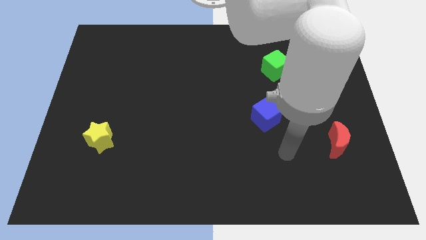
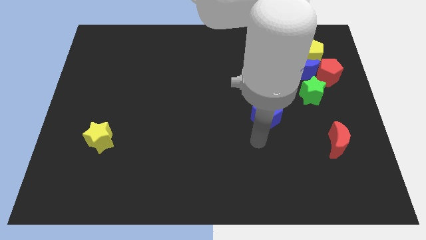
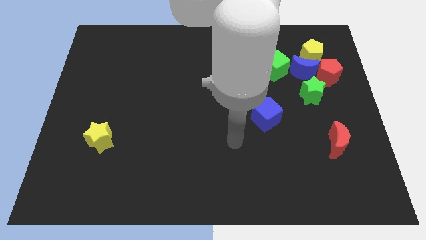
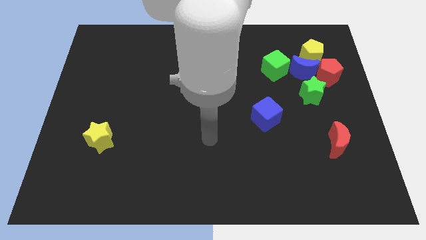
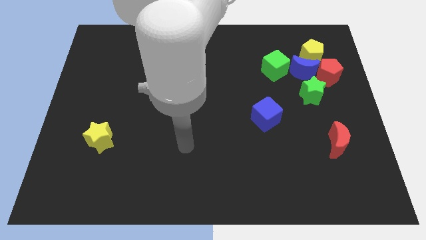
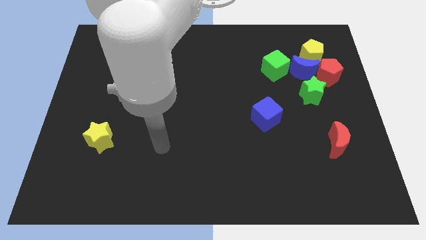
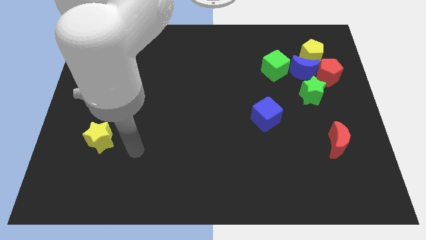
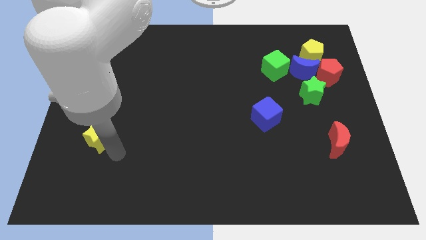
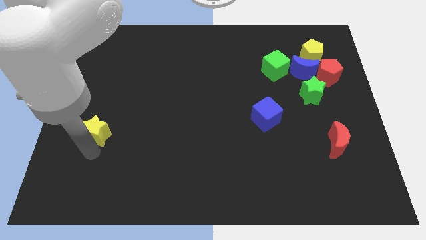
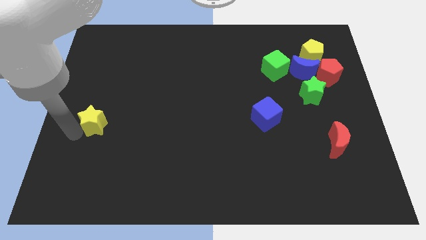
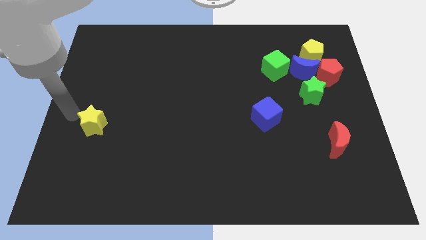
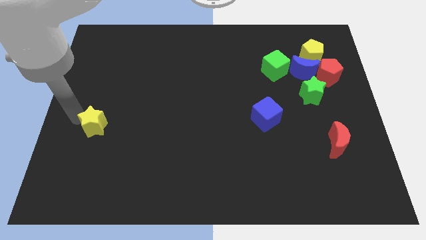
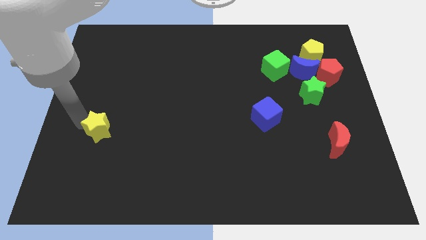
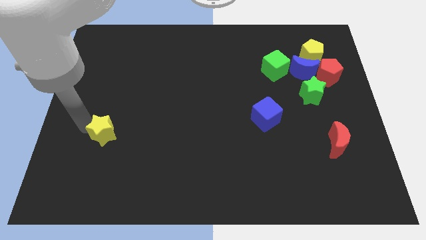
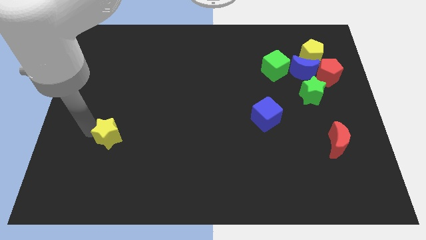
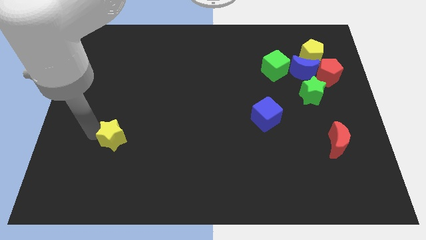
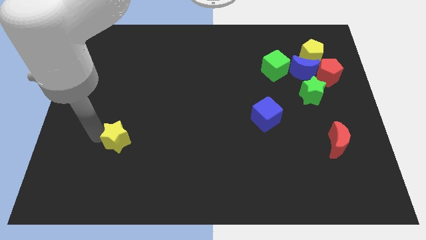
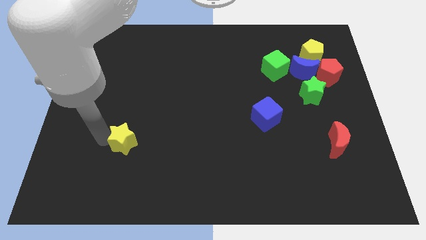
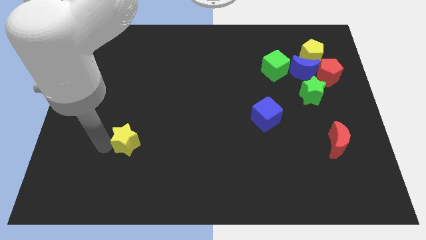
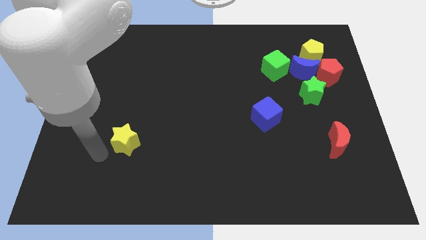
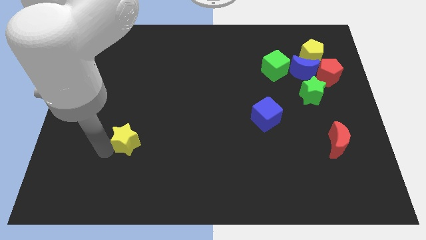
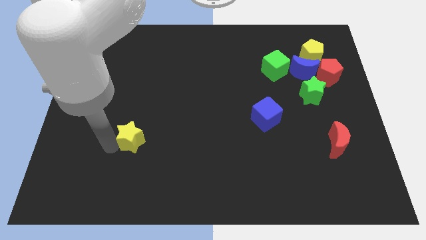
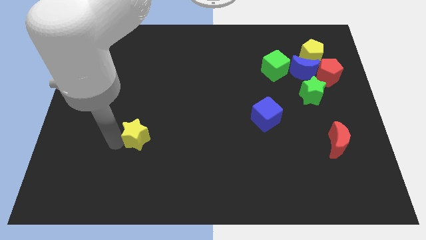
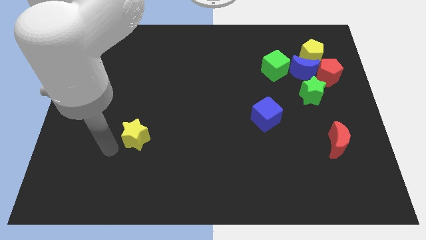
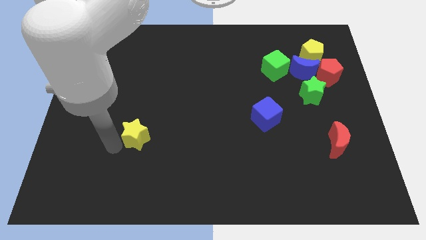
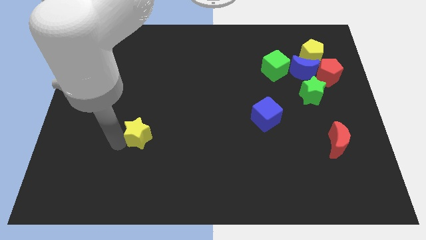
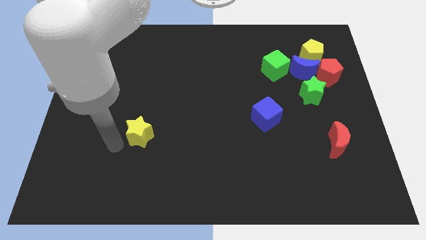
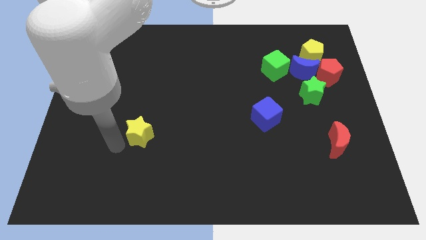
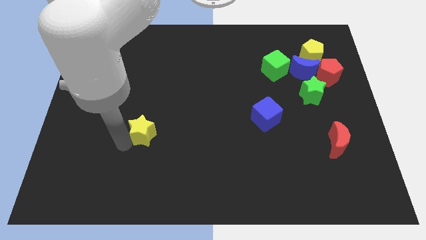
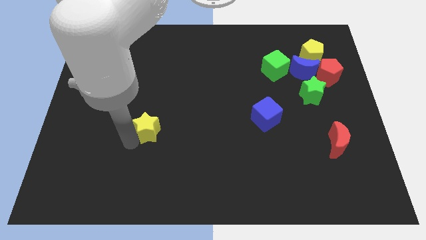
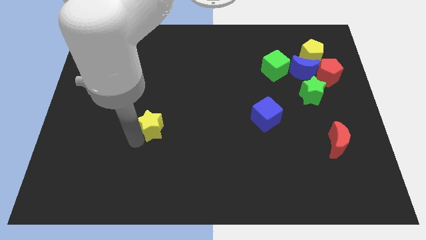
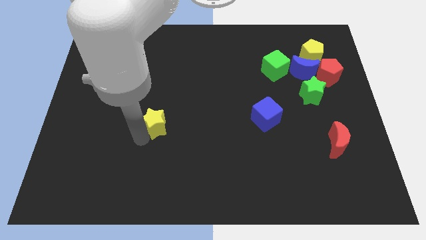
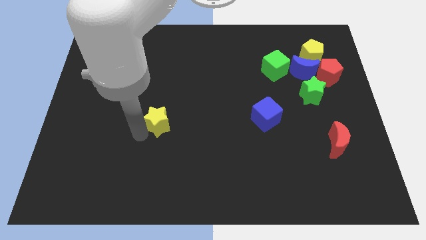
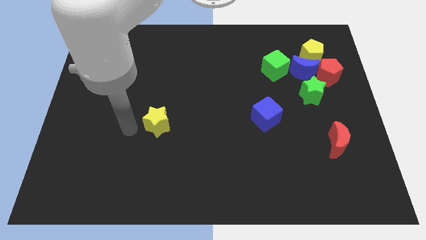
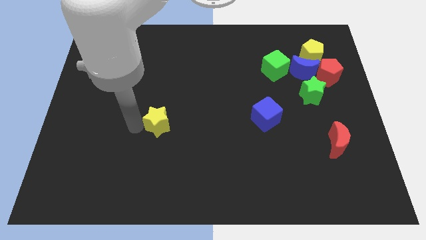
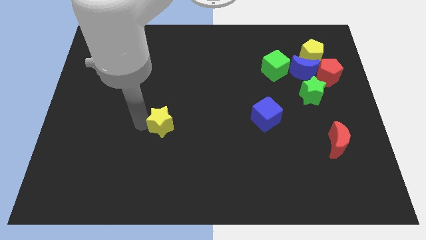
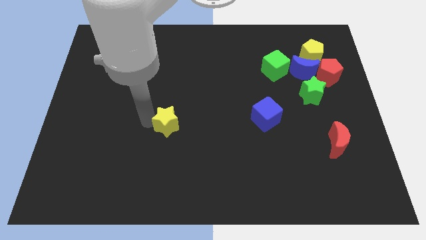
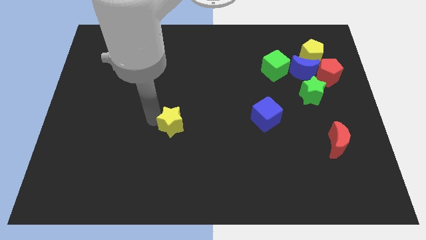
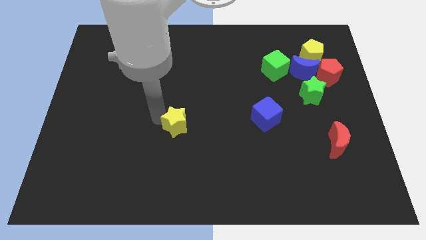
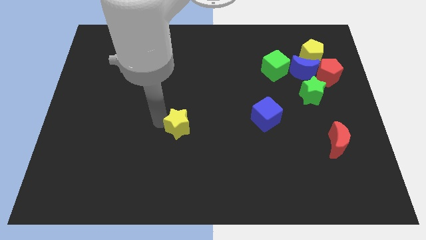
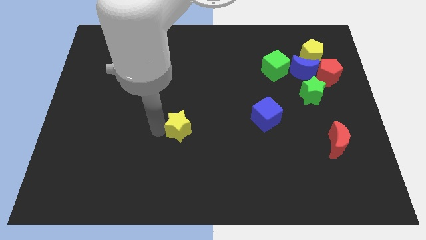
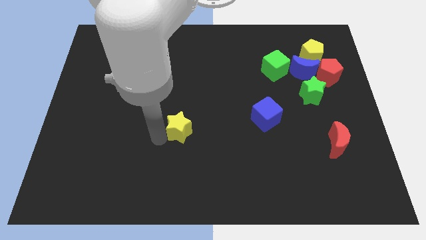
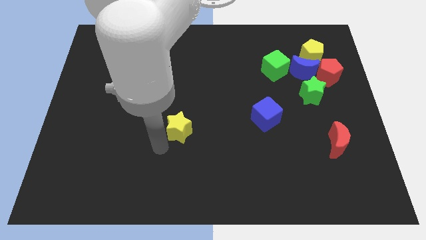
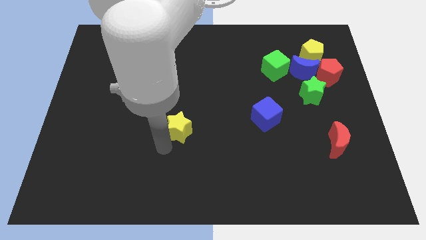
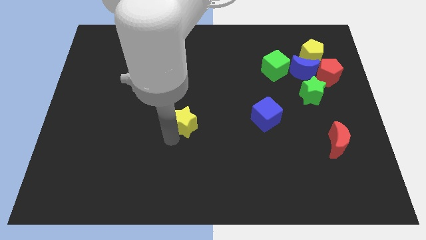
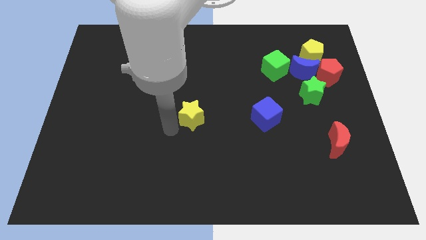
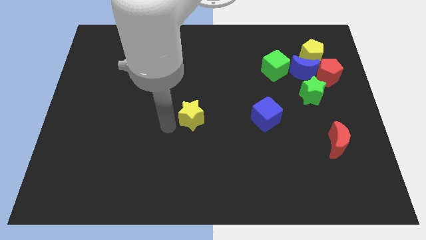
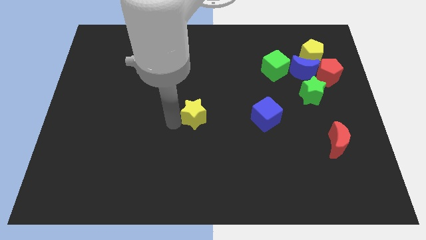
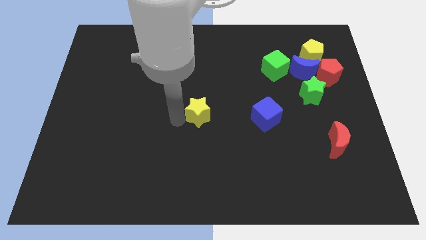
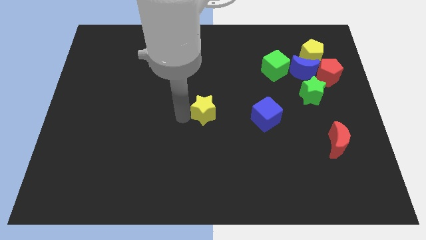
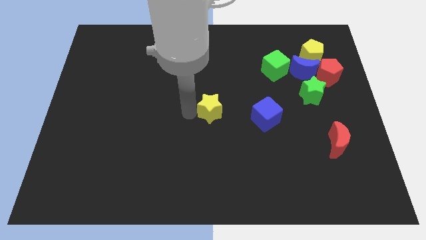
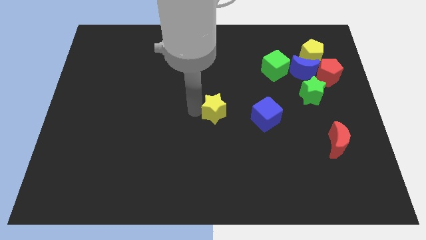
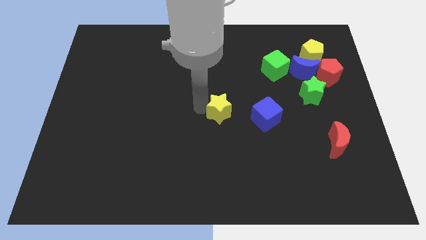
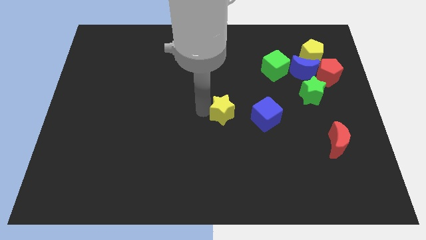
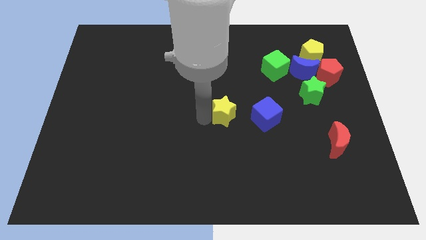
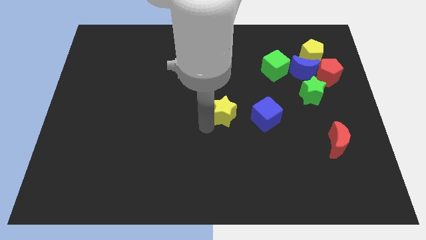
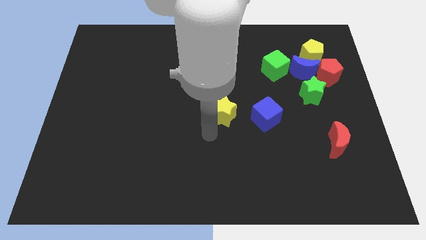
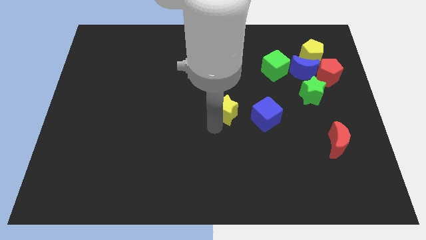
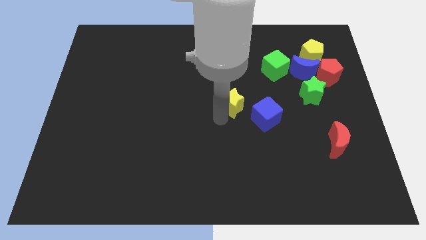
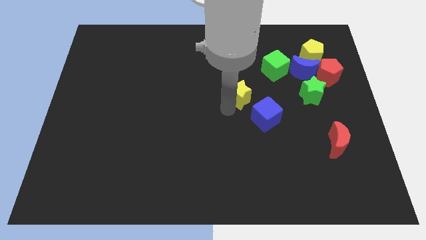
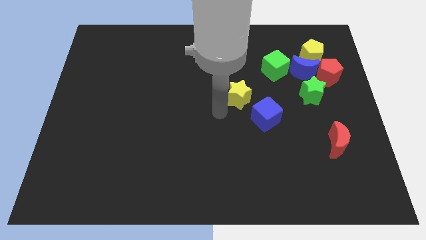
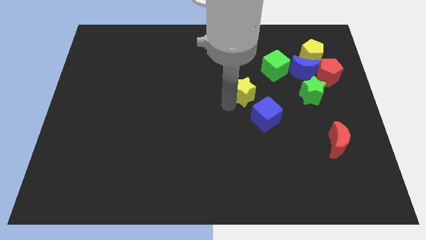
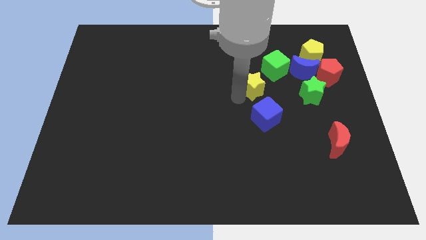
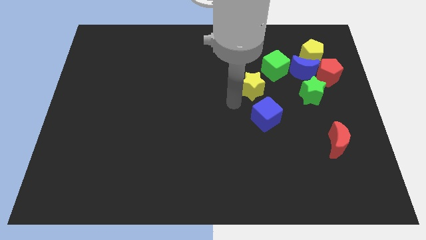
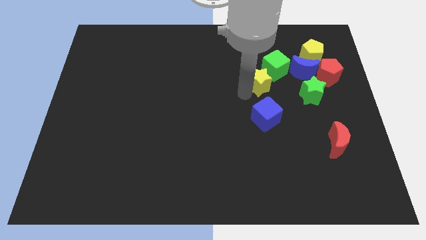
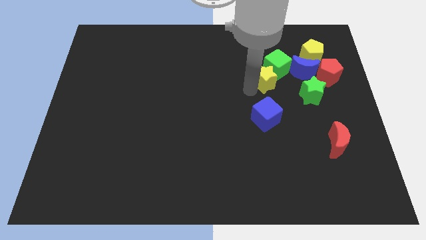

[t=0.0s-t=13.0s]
move the yellow star towards the green cube

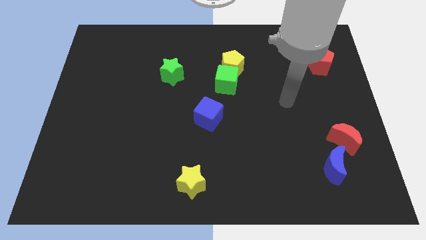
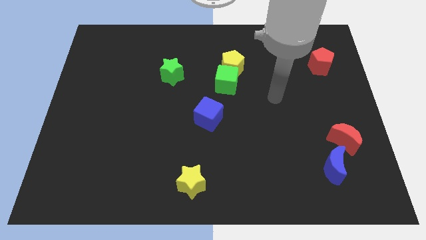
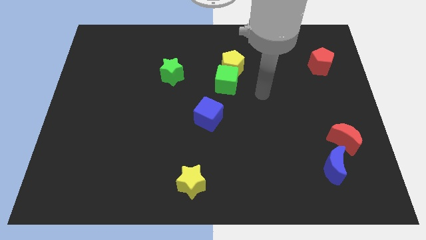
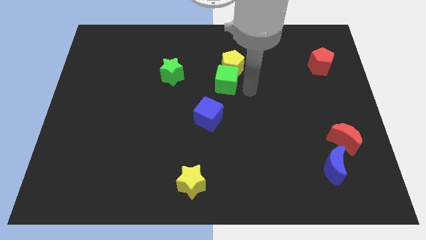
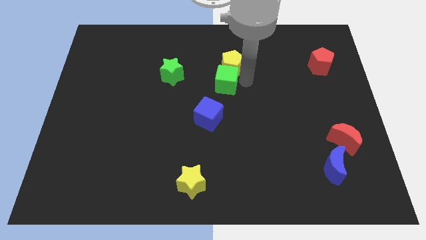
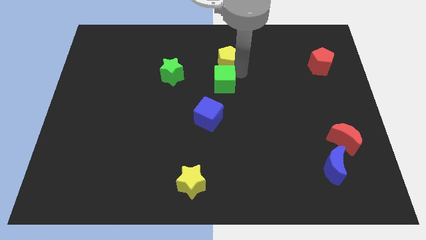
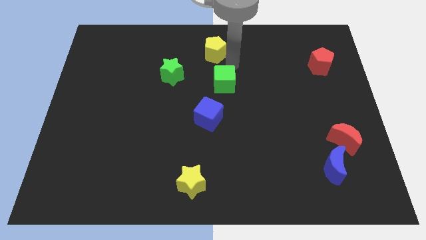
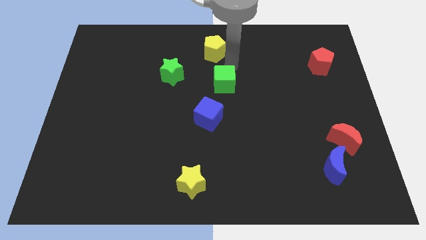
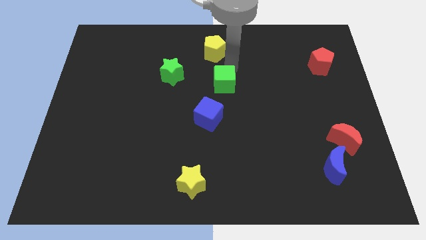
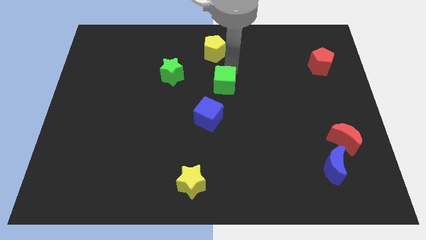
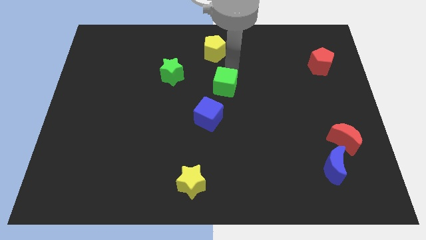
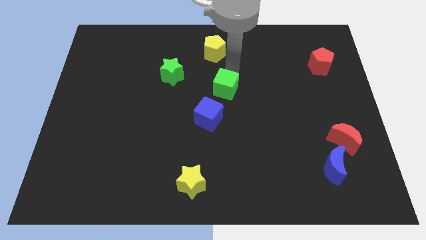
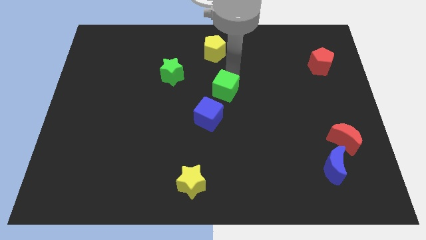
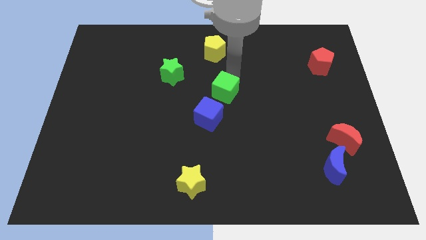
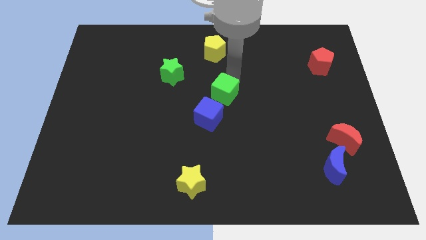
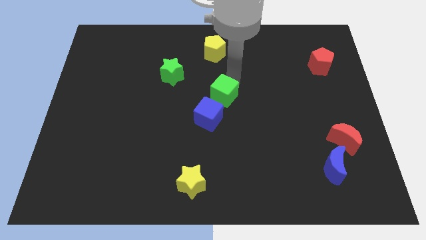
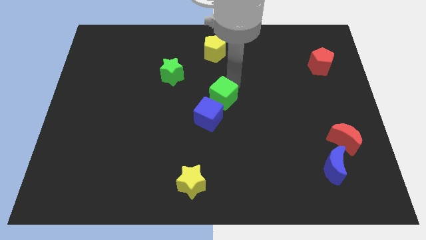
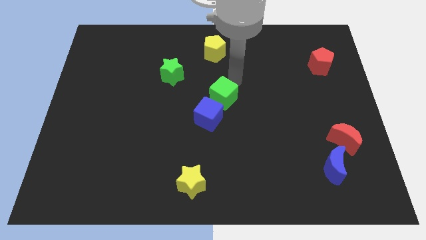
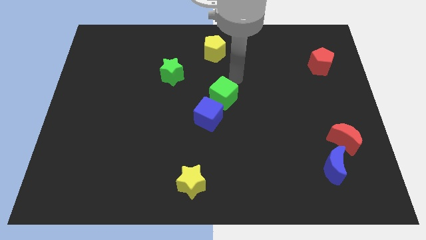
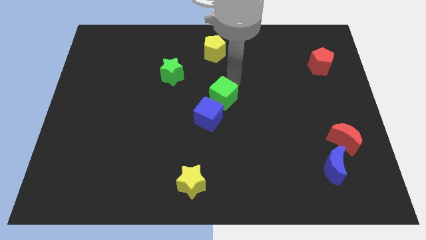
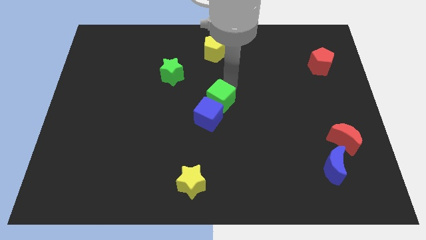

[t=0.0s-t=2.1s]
push the green cube towards the blue cube
